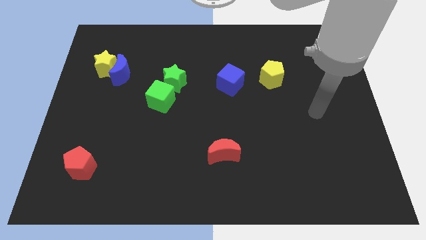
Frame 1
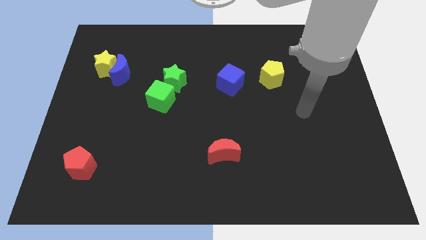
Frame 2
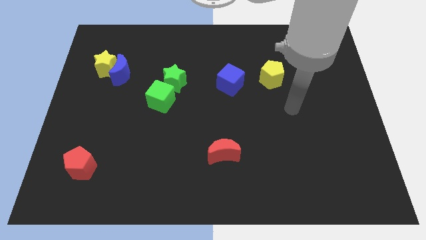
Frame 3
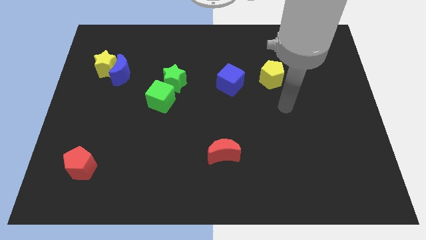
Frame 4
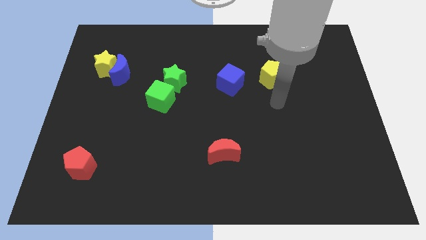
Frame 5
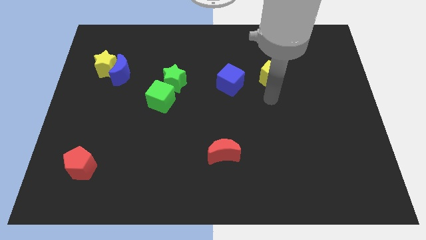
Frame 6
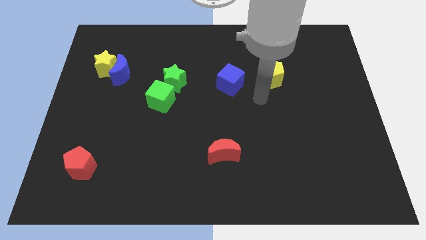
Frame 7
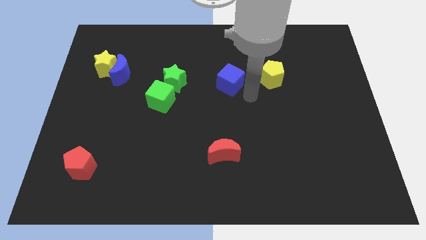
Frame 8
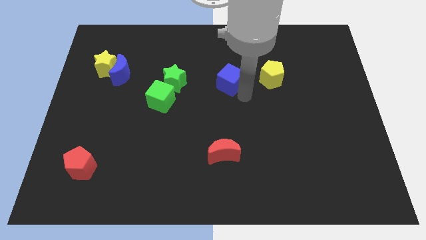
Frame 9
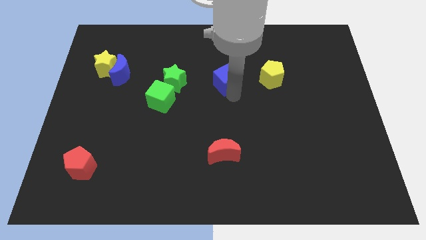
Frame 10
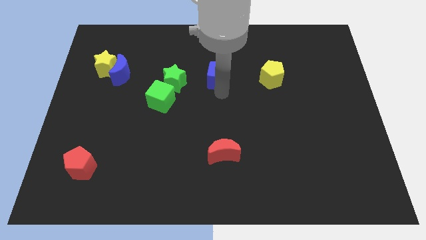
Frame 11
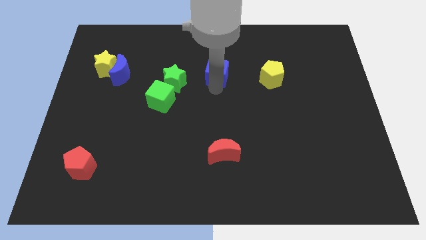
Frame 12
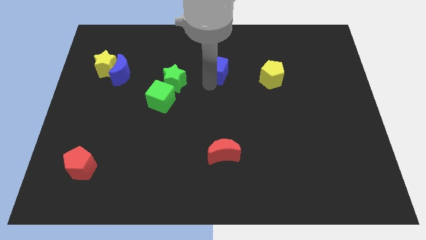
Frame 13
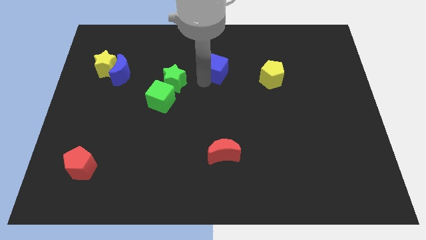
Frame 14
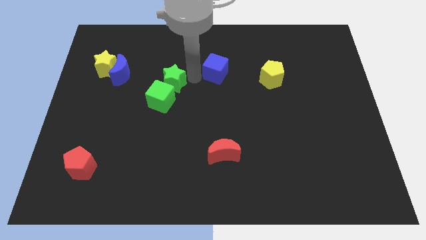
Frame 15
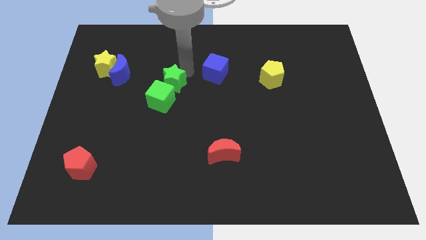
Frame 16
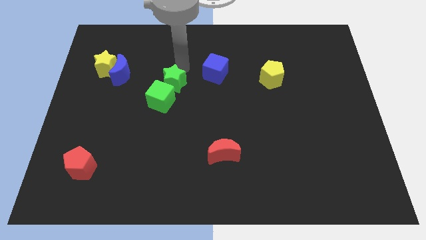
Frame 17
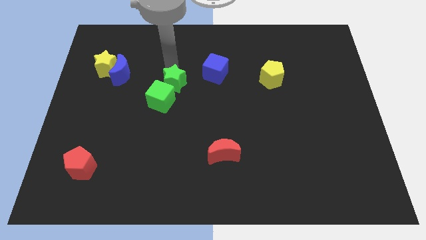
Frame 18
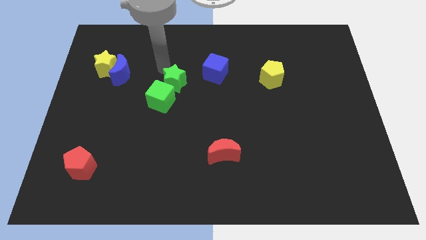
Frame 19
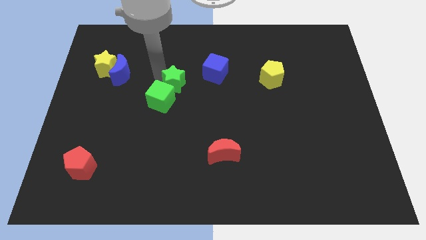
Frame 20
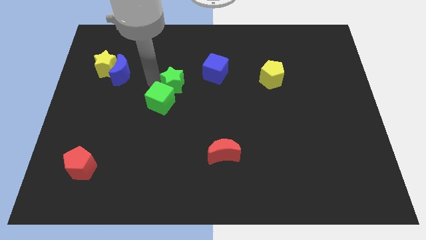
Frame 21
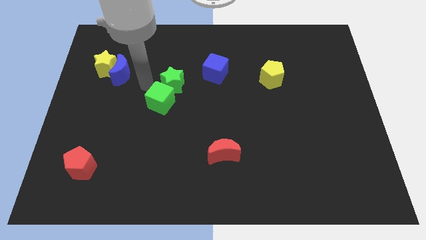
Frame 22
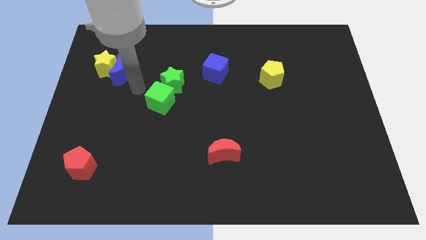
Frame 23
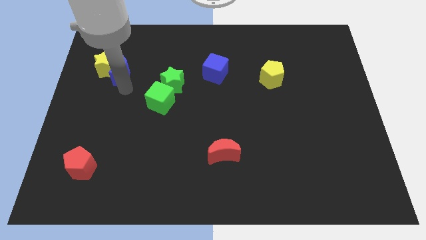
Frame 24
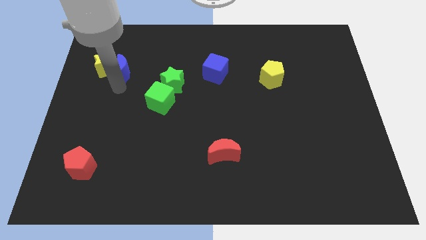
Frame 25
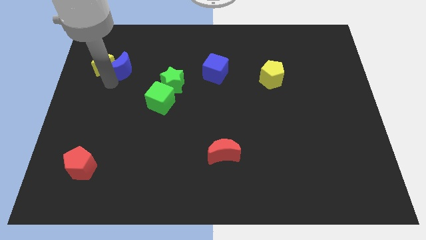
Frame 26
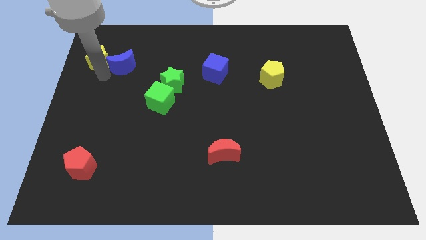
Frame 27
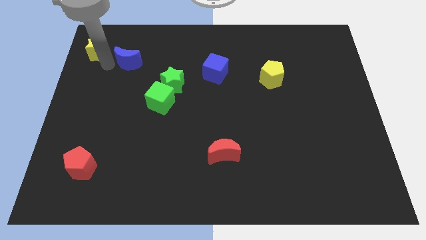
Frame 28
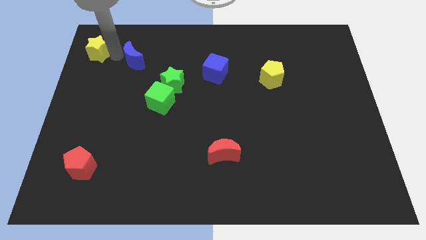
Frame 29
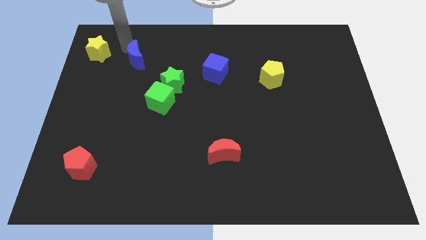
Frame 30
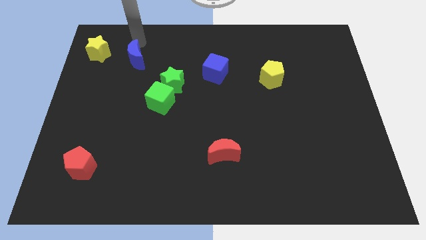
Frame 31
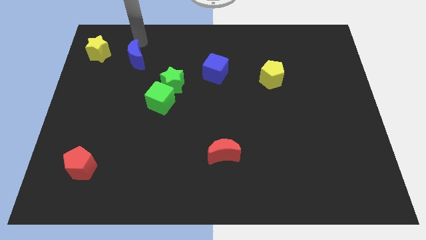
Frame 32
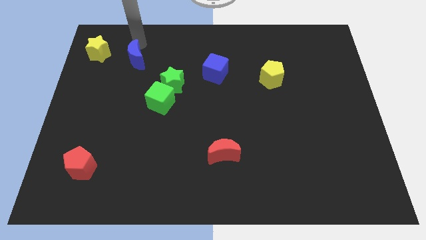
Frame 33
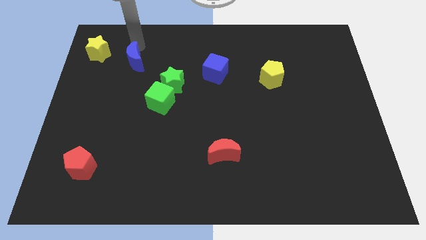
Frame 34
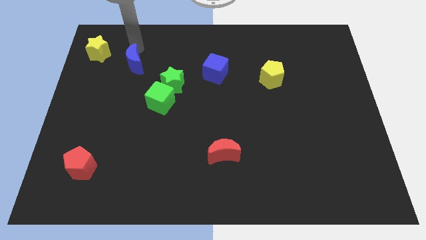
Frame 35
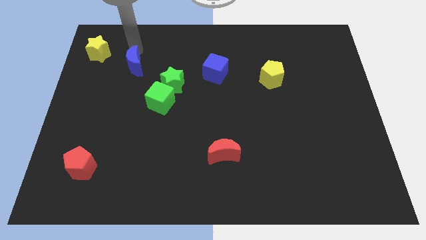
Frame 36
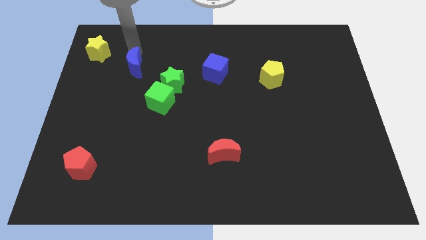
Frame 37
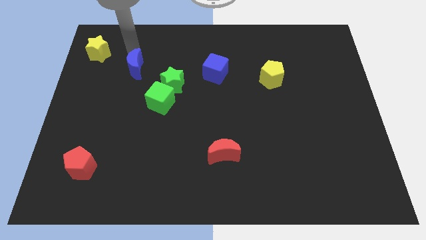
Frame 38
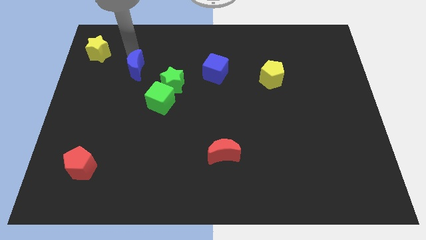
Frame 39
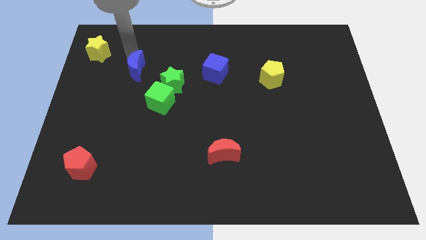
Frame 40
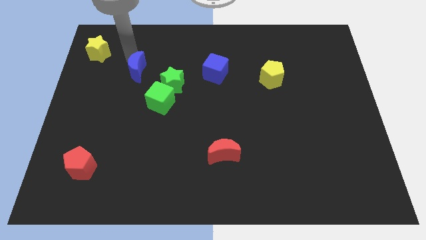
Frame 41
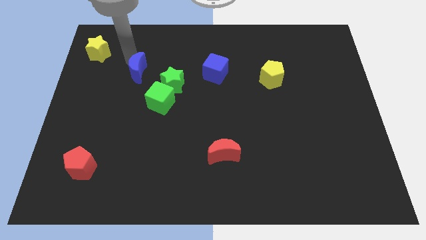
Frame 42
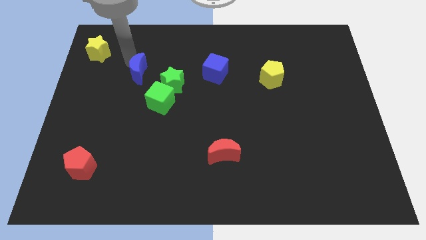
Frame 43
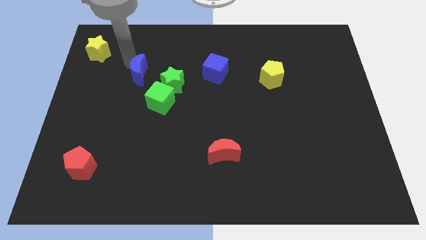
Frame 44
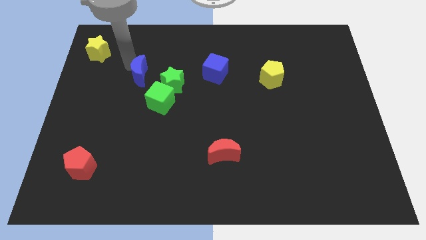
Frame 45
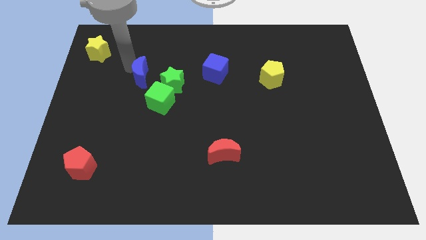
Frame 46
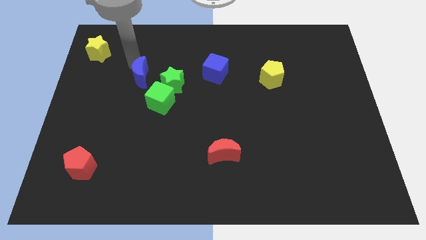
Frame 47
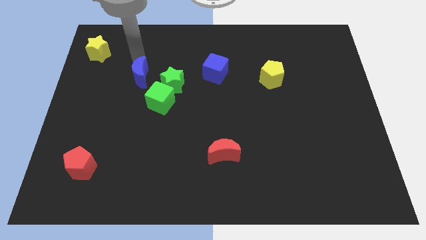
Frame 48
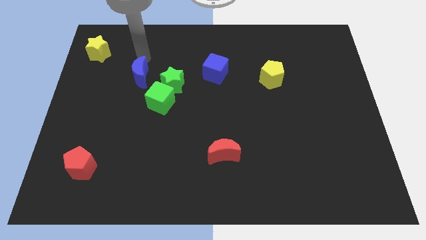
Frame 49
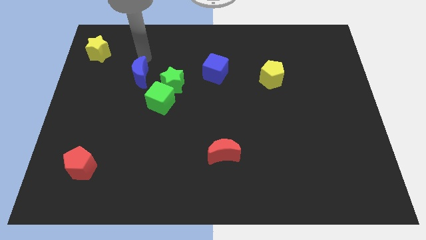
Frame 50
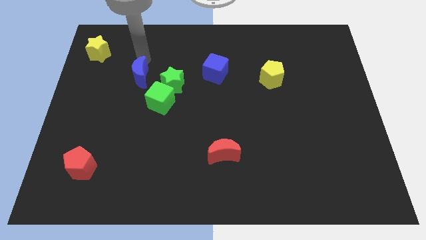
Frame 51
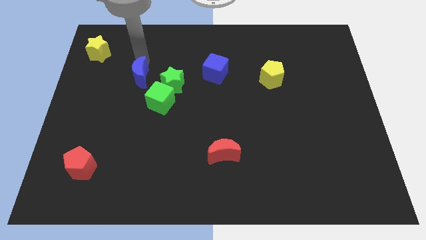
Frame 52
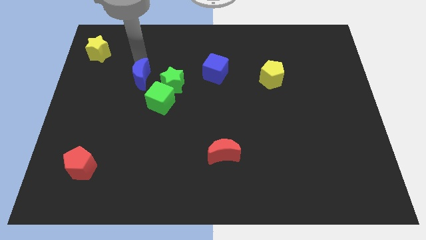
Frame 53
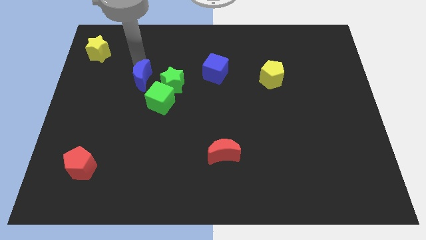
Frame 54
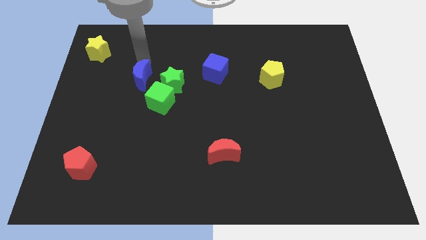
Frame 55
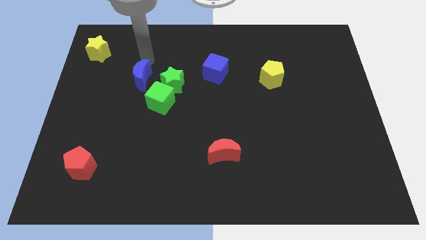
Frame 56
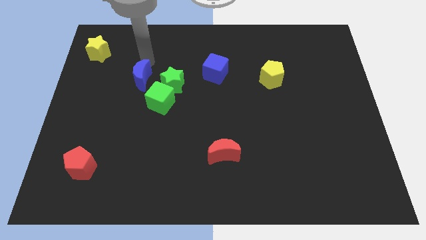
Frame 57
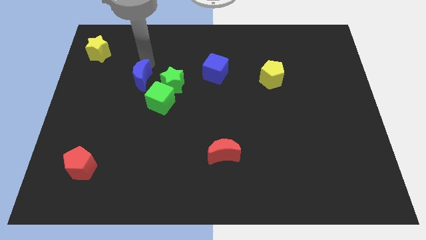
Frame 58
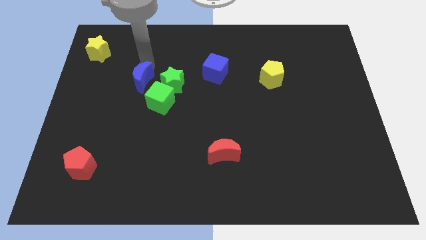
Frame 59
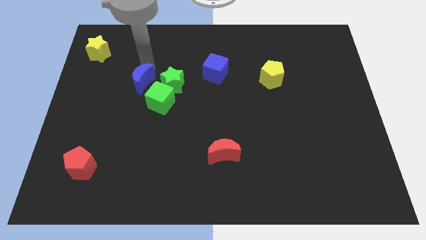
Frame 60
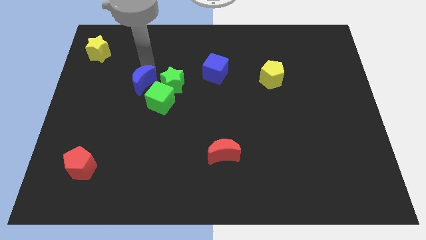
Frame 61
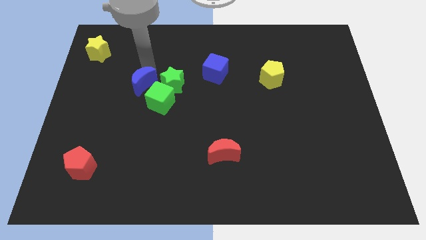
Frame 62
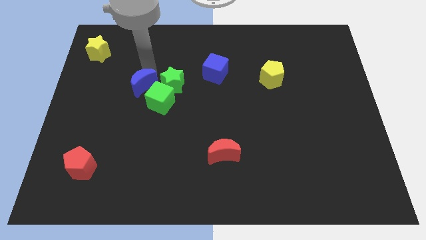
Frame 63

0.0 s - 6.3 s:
push the blue moon downwards and right diagonally a little bit

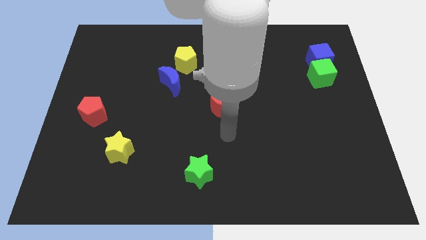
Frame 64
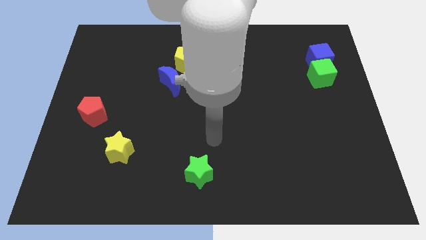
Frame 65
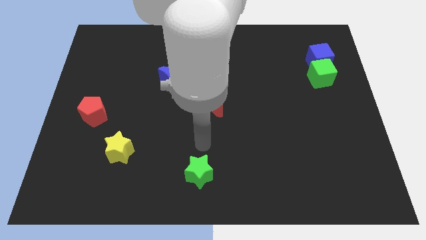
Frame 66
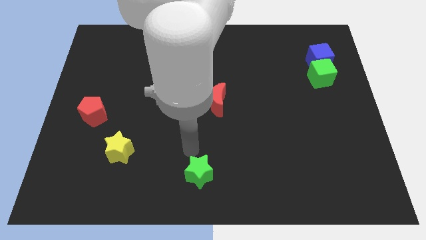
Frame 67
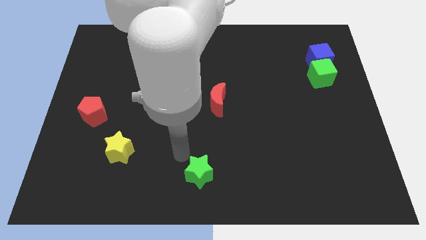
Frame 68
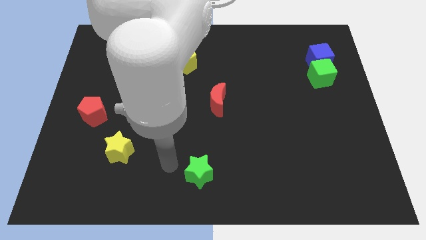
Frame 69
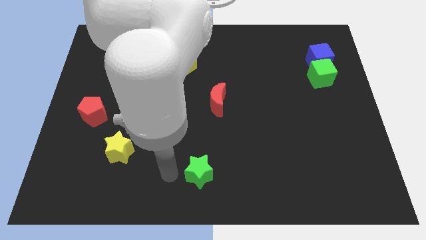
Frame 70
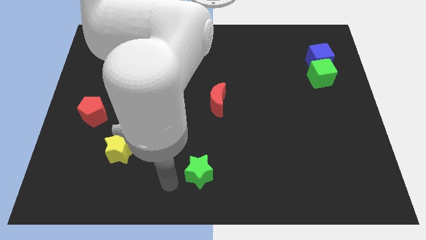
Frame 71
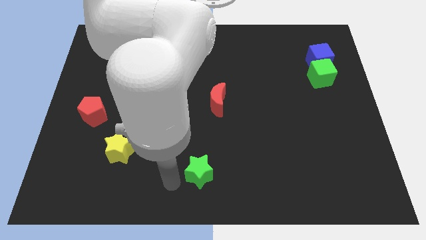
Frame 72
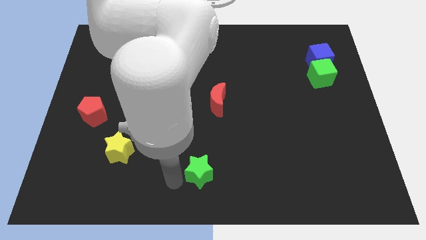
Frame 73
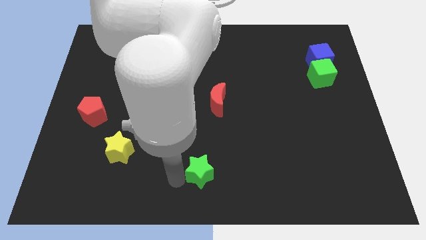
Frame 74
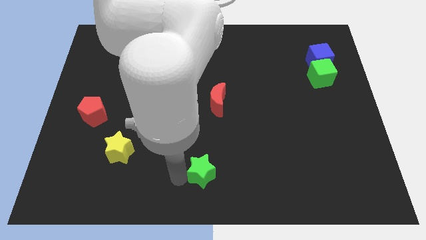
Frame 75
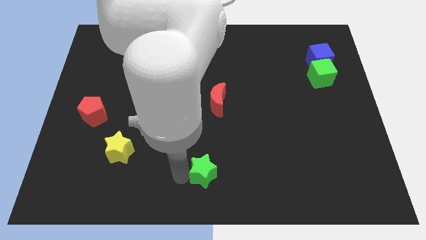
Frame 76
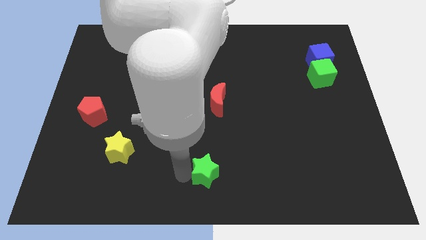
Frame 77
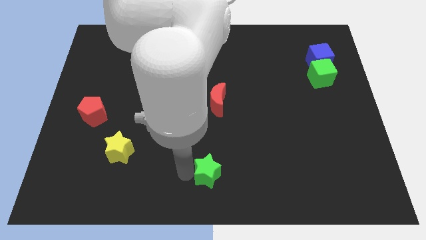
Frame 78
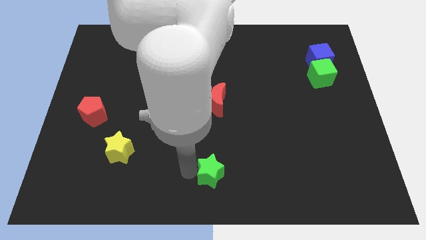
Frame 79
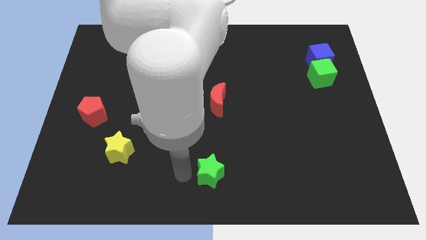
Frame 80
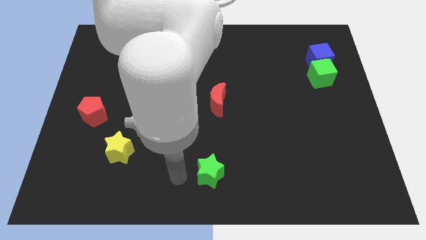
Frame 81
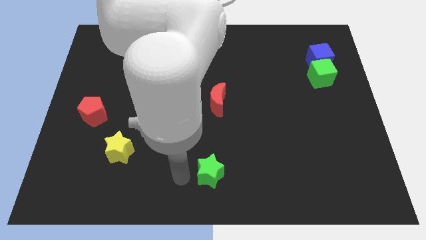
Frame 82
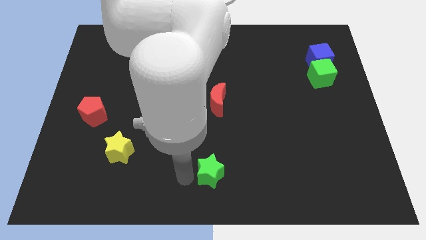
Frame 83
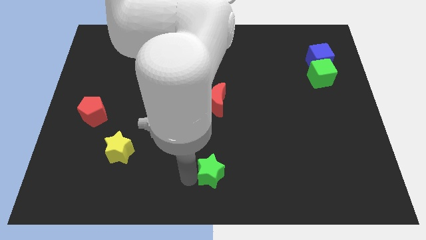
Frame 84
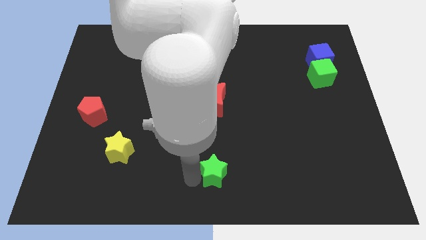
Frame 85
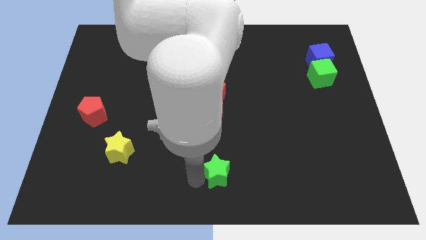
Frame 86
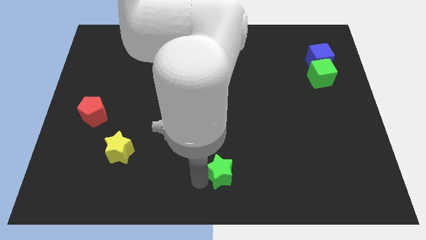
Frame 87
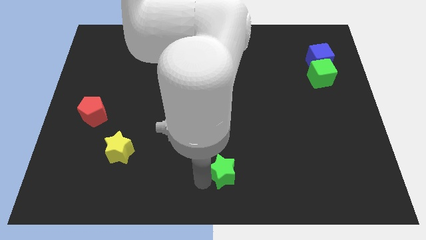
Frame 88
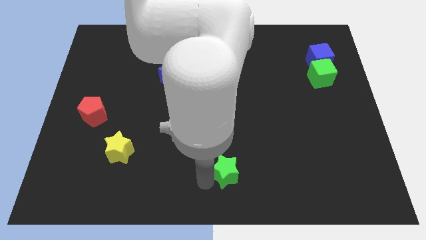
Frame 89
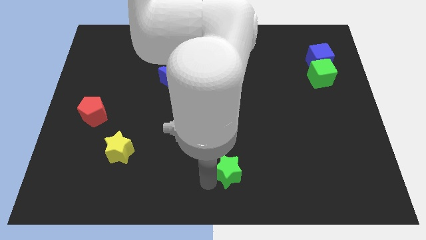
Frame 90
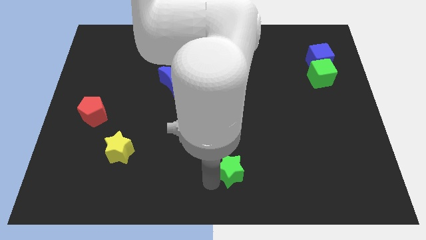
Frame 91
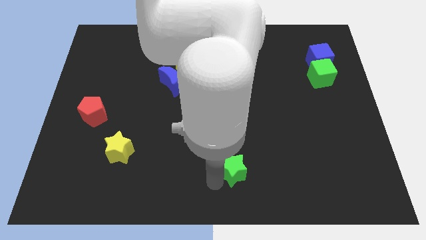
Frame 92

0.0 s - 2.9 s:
slide the green star slightly right
